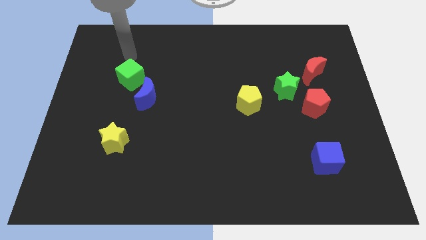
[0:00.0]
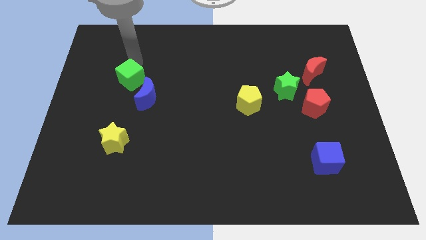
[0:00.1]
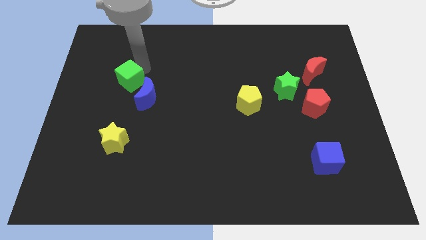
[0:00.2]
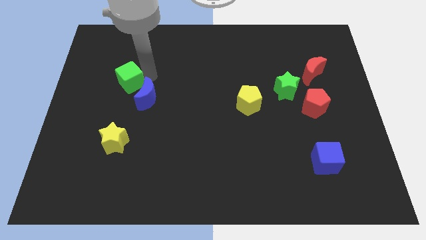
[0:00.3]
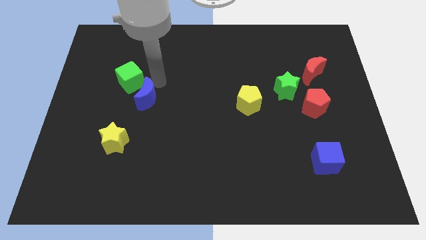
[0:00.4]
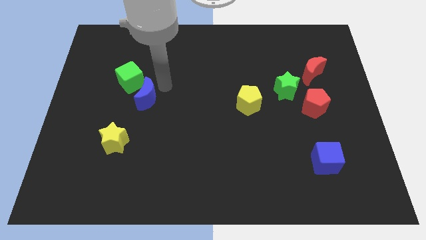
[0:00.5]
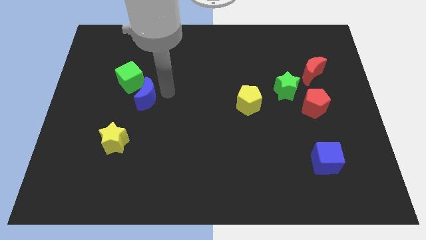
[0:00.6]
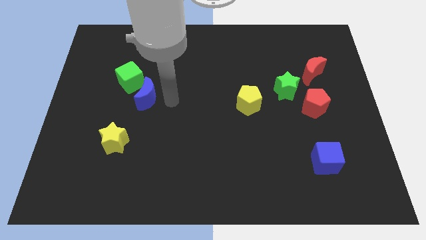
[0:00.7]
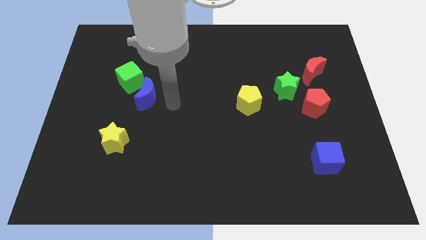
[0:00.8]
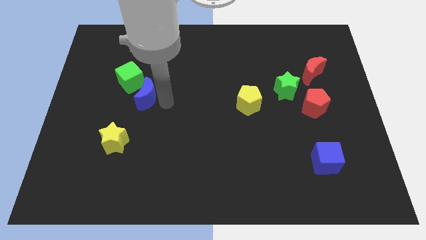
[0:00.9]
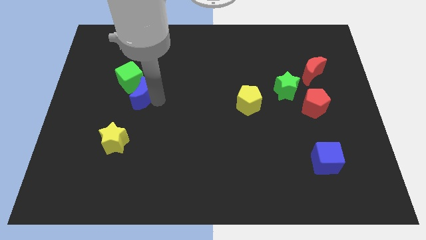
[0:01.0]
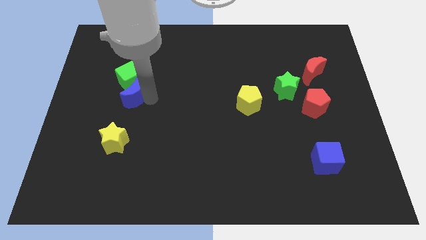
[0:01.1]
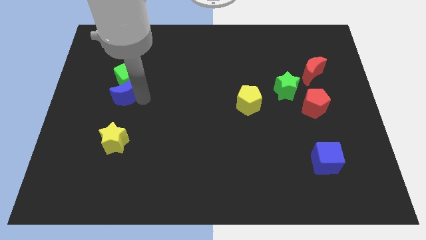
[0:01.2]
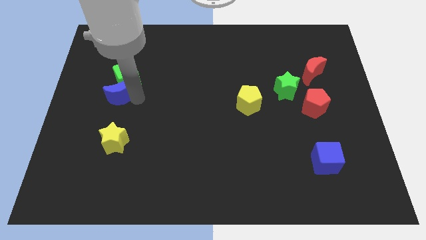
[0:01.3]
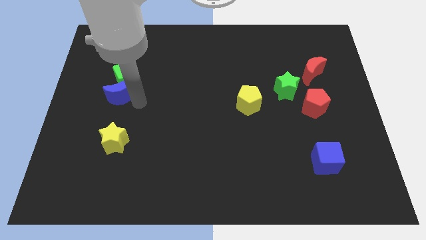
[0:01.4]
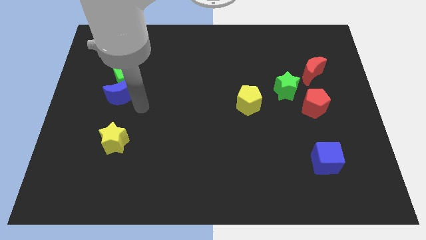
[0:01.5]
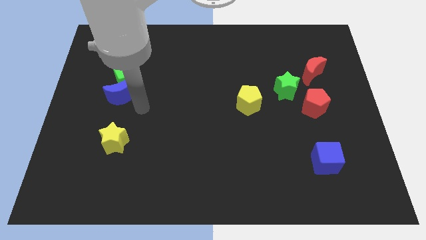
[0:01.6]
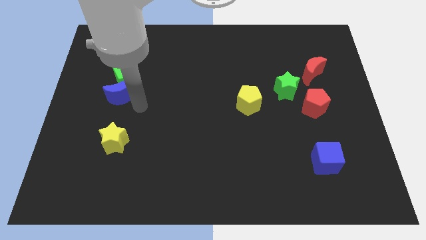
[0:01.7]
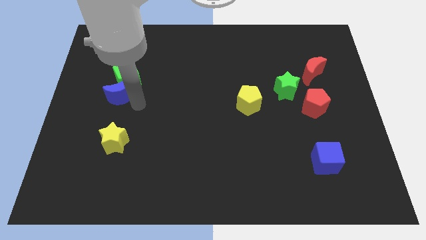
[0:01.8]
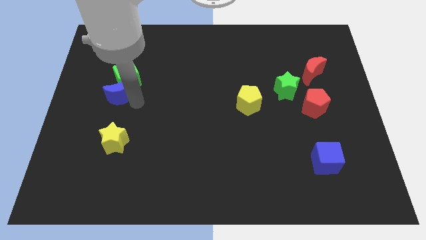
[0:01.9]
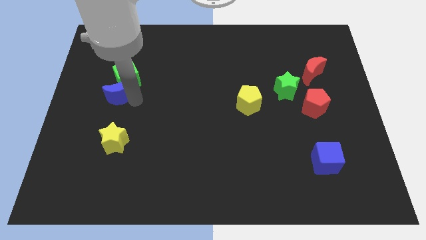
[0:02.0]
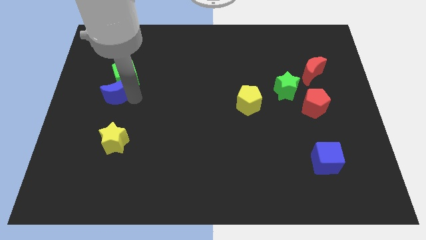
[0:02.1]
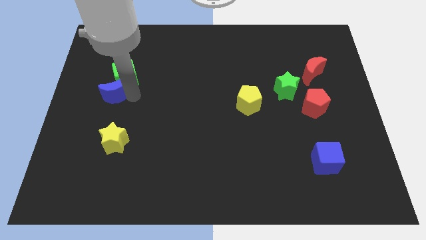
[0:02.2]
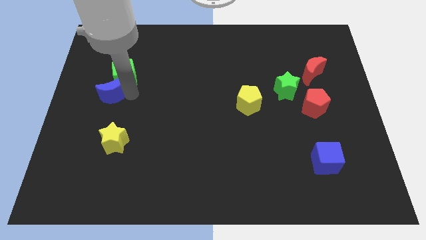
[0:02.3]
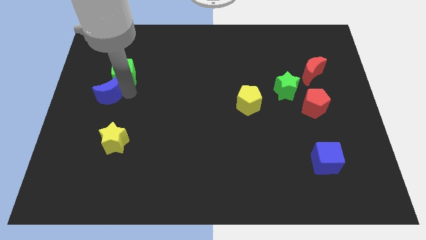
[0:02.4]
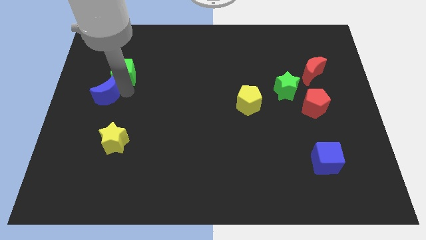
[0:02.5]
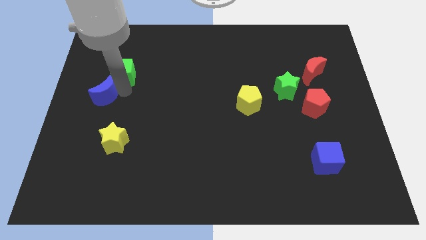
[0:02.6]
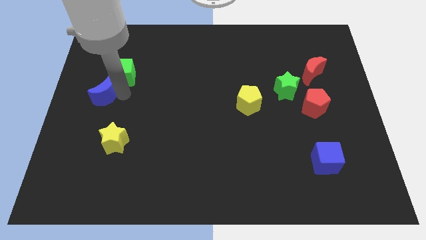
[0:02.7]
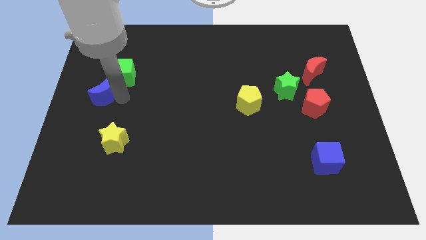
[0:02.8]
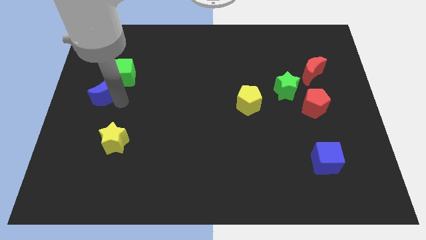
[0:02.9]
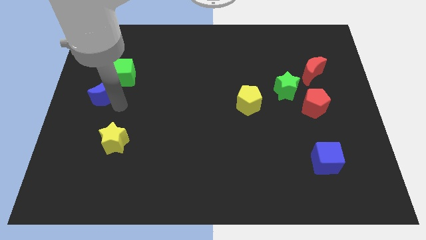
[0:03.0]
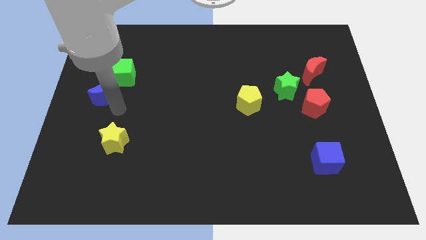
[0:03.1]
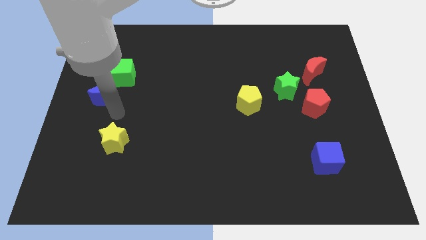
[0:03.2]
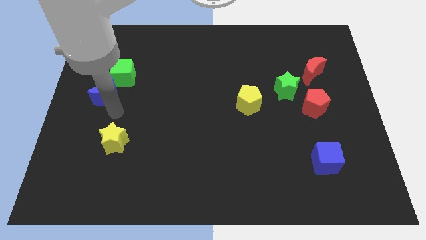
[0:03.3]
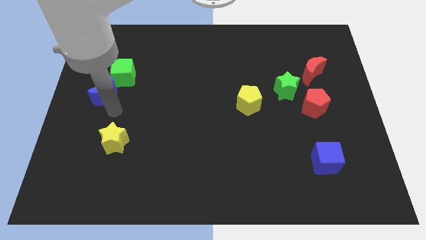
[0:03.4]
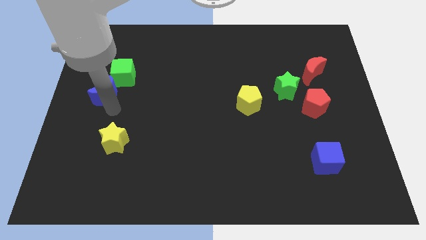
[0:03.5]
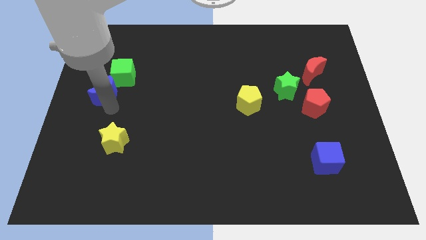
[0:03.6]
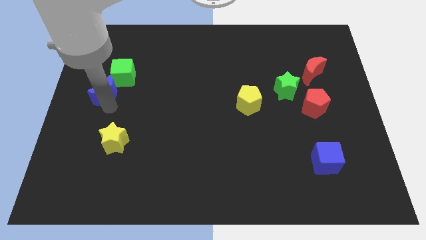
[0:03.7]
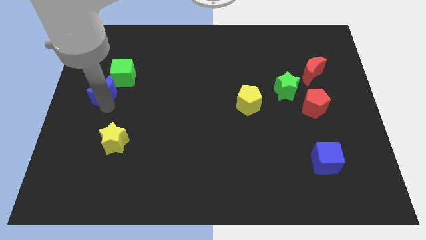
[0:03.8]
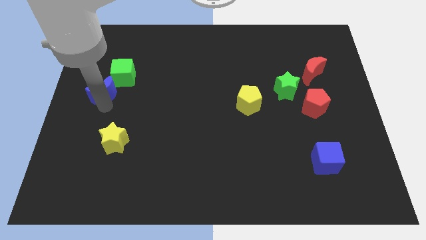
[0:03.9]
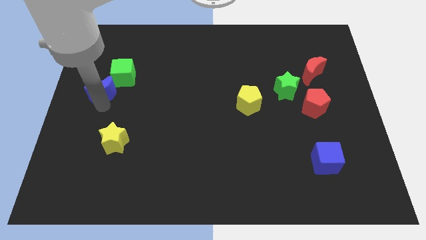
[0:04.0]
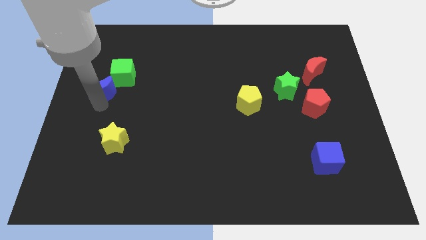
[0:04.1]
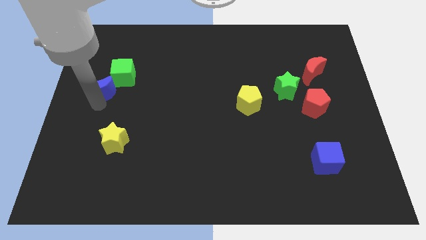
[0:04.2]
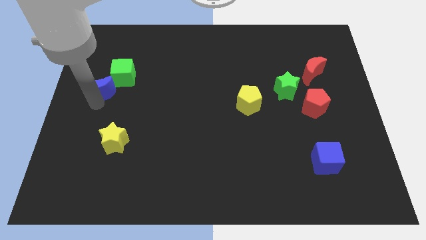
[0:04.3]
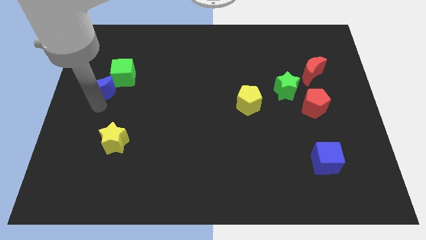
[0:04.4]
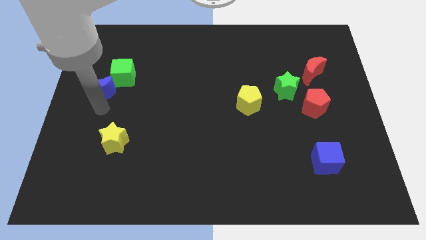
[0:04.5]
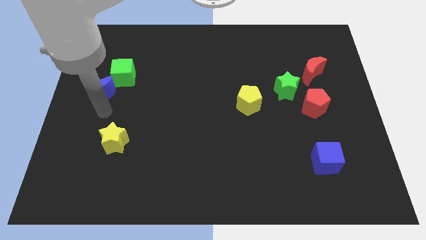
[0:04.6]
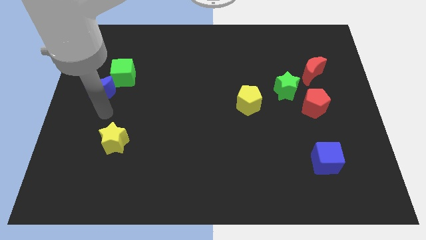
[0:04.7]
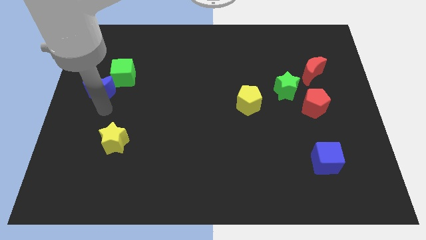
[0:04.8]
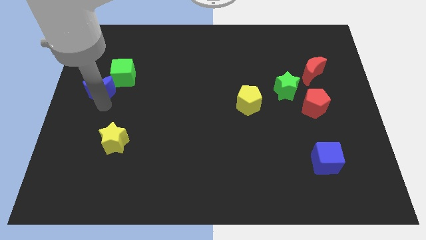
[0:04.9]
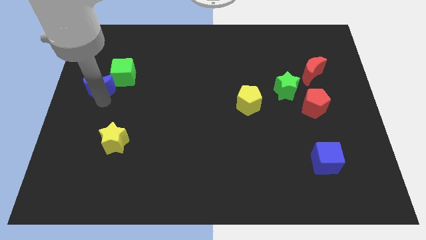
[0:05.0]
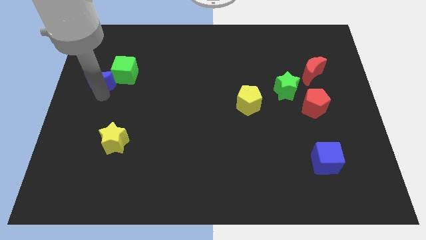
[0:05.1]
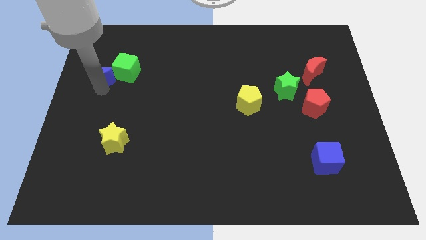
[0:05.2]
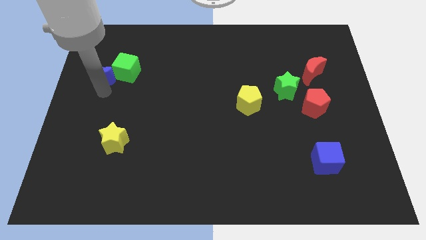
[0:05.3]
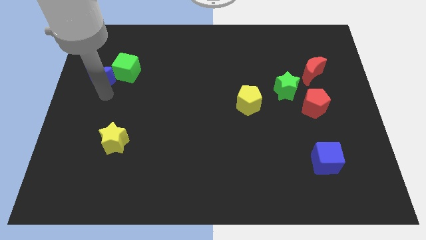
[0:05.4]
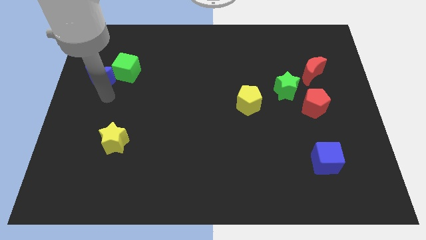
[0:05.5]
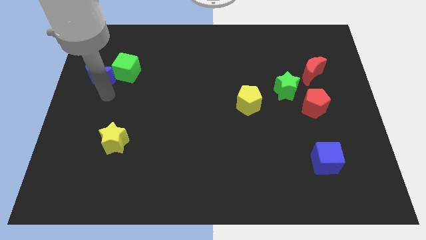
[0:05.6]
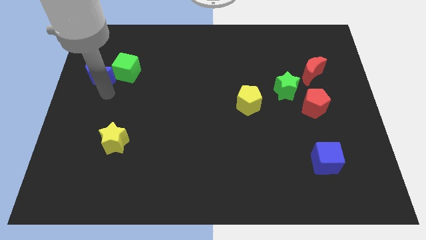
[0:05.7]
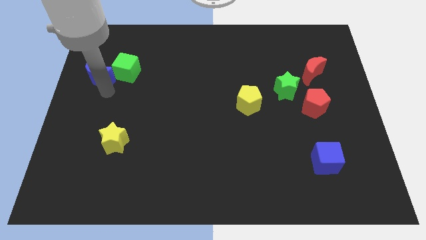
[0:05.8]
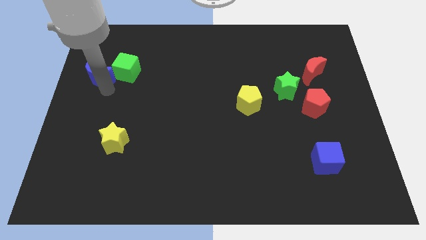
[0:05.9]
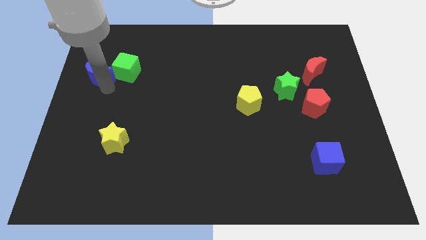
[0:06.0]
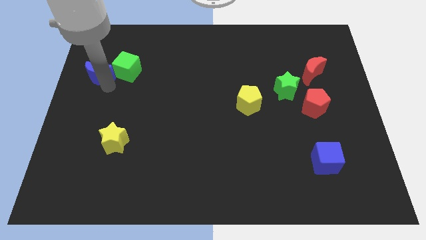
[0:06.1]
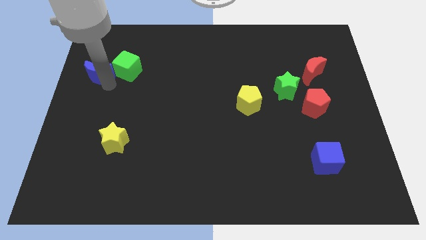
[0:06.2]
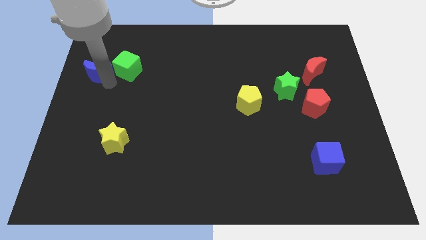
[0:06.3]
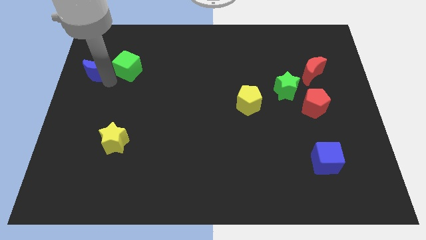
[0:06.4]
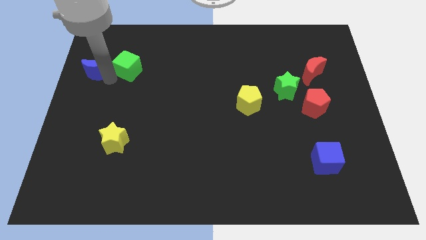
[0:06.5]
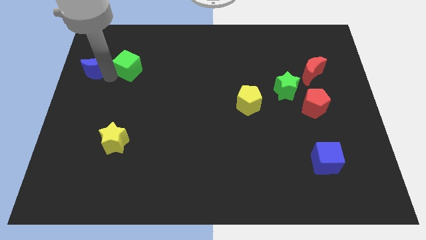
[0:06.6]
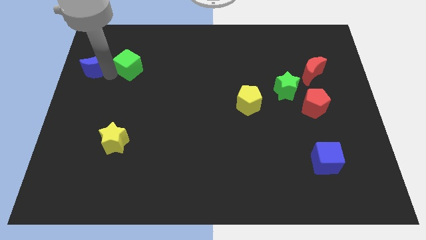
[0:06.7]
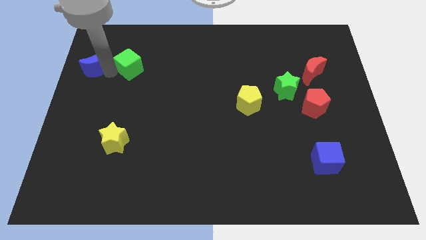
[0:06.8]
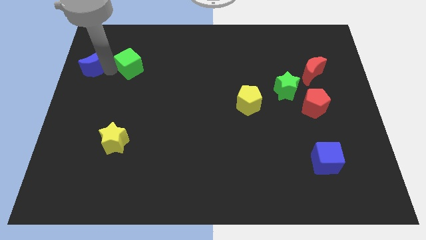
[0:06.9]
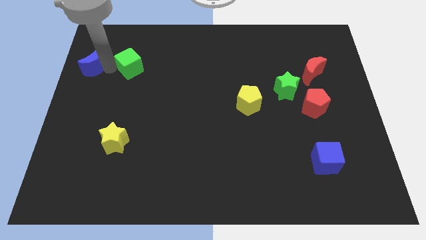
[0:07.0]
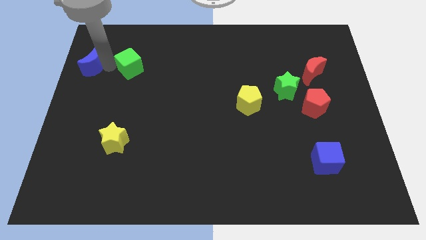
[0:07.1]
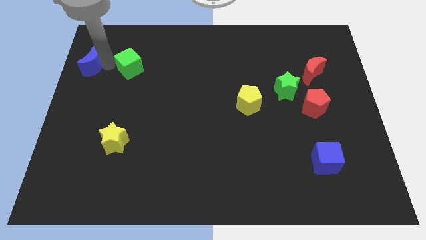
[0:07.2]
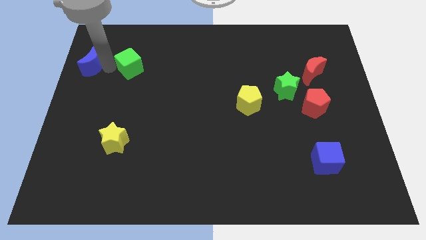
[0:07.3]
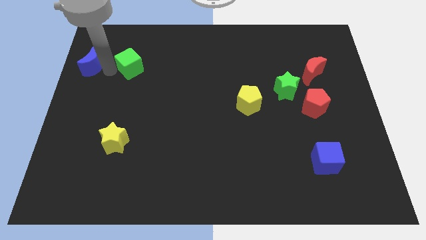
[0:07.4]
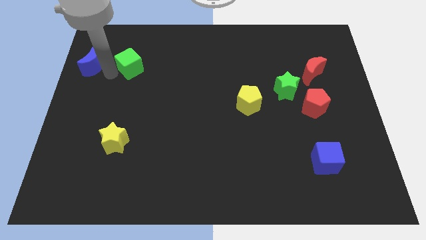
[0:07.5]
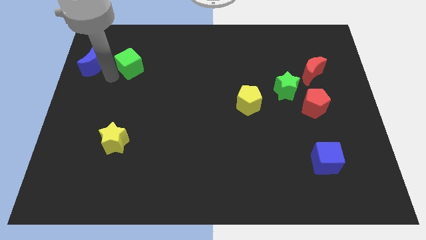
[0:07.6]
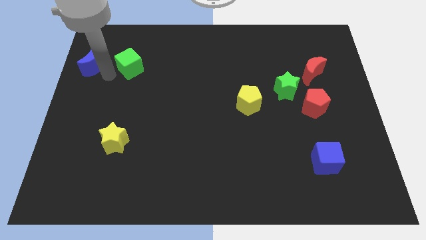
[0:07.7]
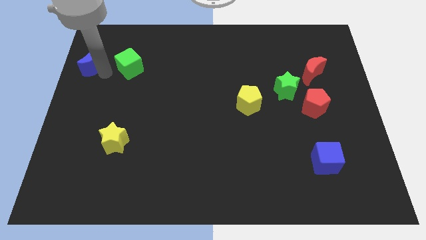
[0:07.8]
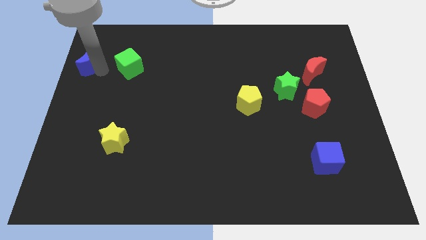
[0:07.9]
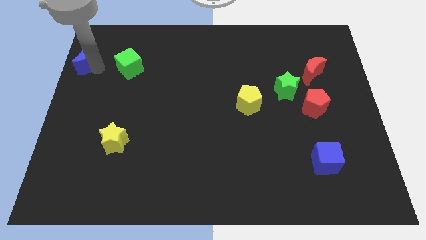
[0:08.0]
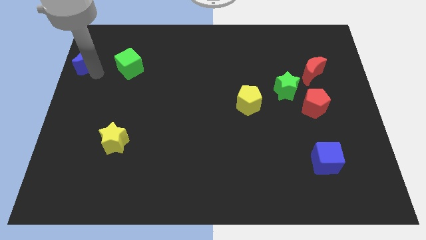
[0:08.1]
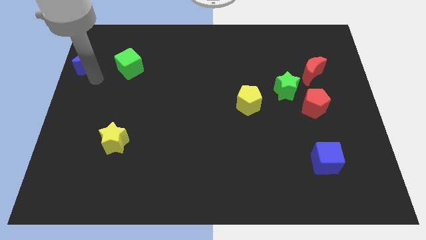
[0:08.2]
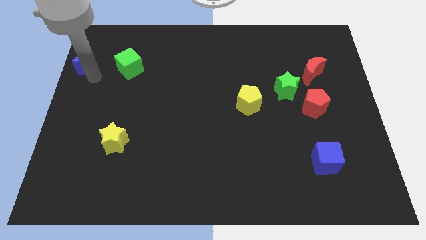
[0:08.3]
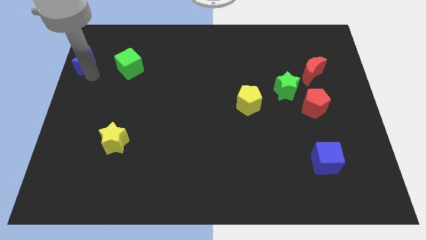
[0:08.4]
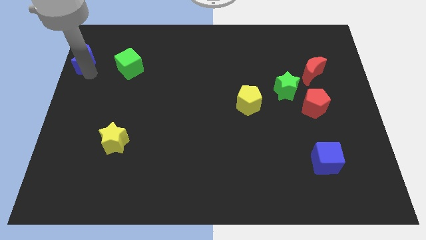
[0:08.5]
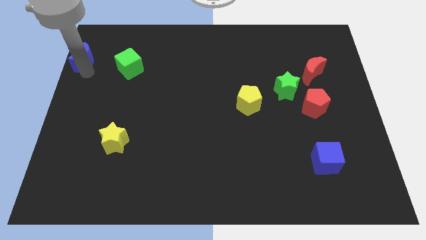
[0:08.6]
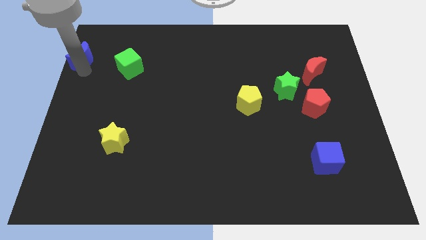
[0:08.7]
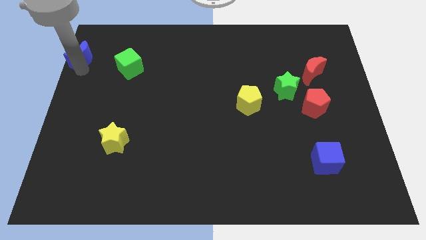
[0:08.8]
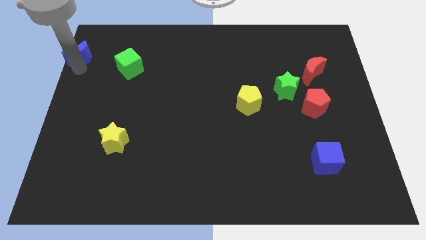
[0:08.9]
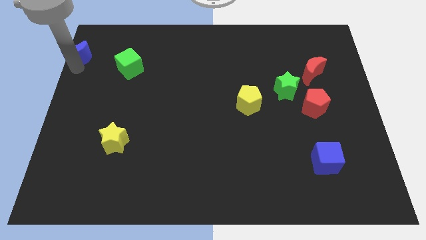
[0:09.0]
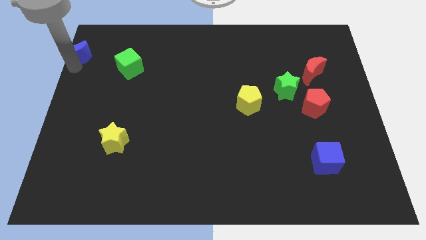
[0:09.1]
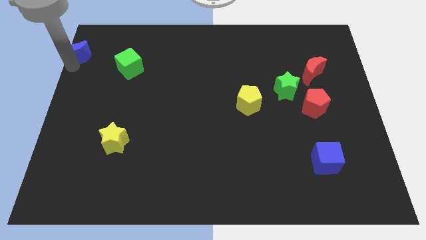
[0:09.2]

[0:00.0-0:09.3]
slide the blue moon to the upper left corner
